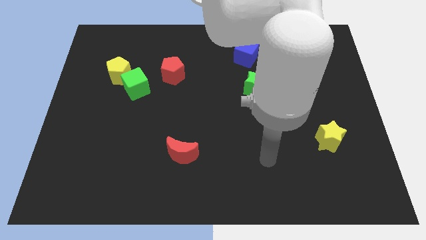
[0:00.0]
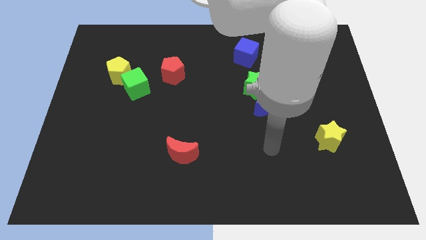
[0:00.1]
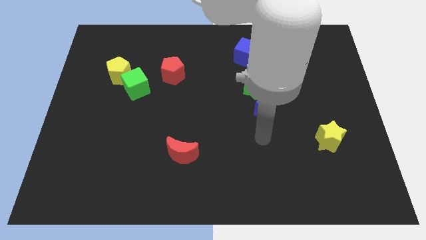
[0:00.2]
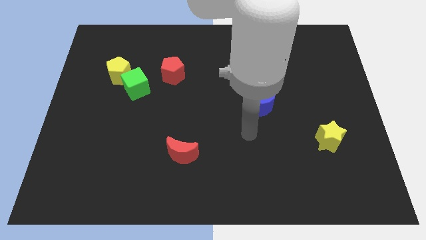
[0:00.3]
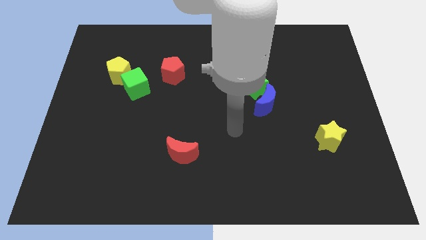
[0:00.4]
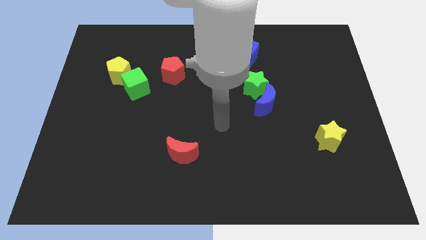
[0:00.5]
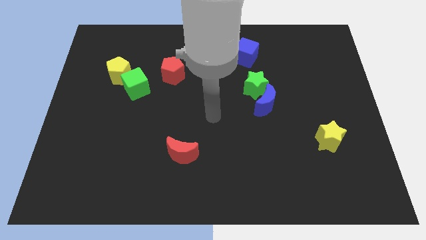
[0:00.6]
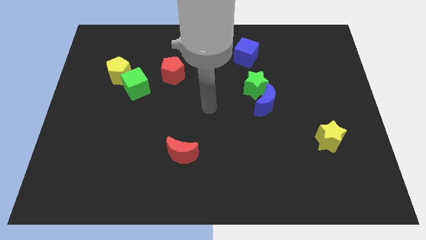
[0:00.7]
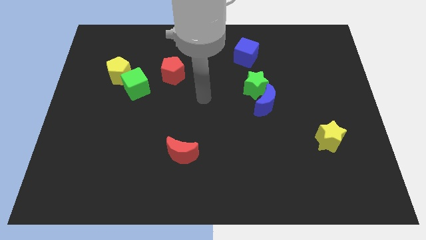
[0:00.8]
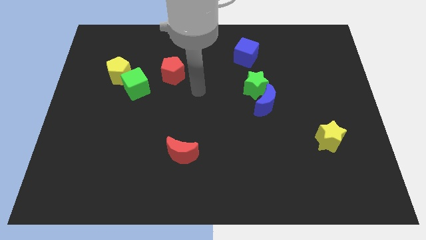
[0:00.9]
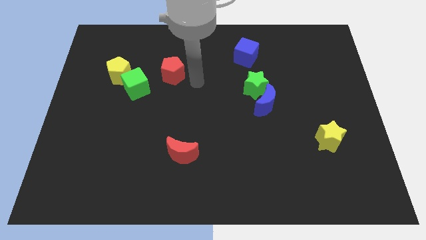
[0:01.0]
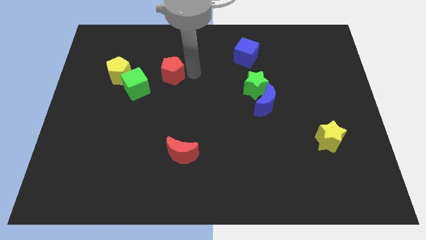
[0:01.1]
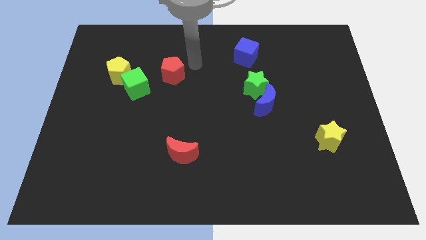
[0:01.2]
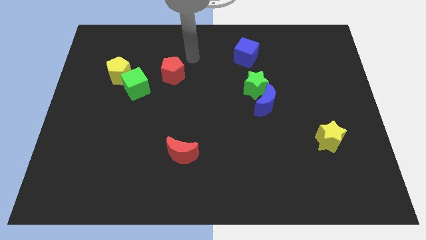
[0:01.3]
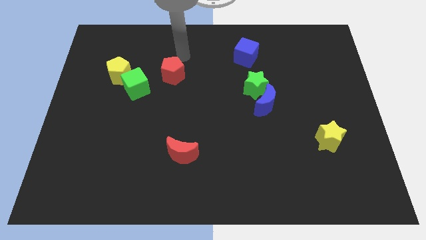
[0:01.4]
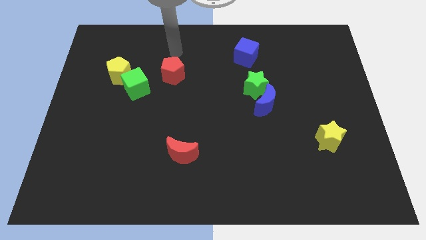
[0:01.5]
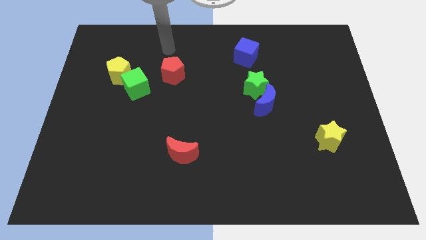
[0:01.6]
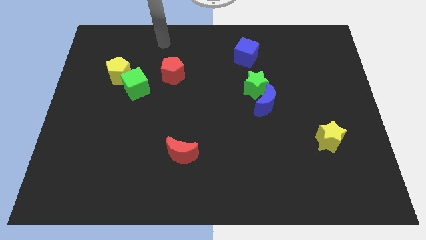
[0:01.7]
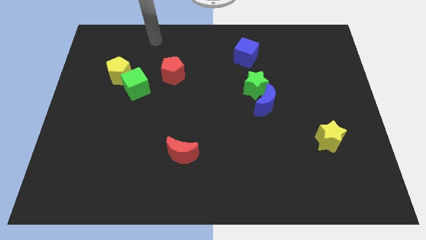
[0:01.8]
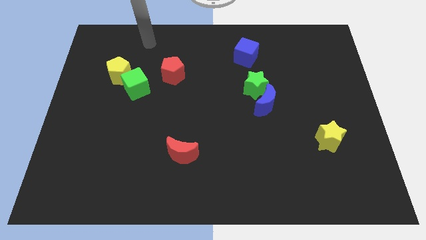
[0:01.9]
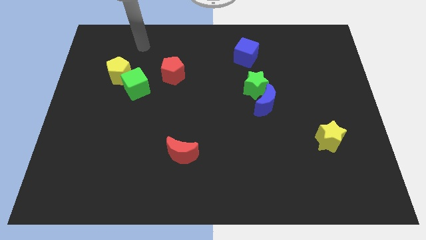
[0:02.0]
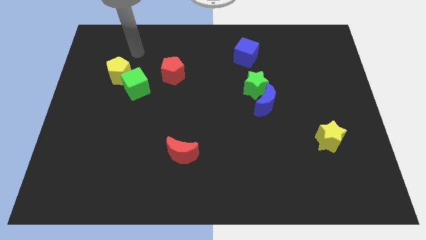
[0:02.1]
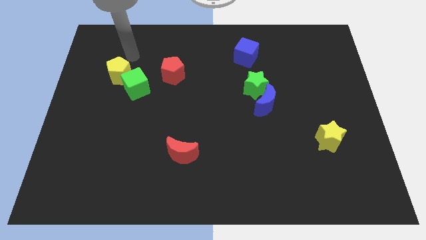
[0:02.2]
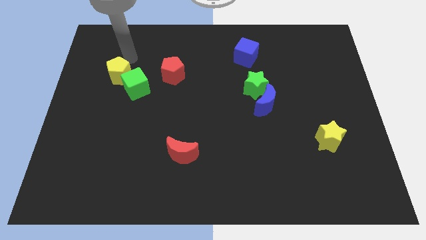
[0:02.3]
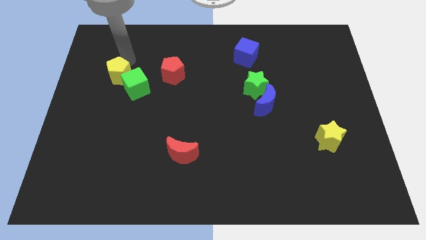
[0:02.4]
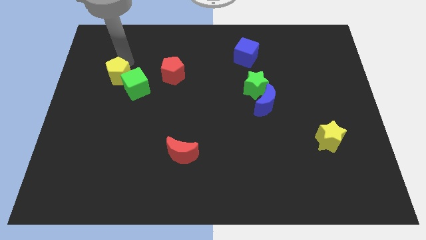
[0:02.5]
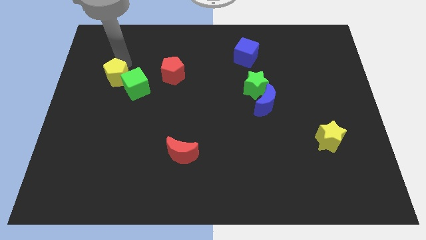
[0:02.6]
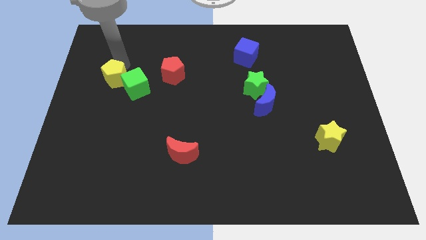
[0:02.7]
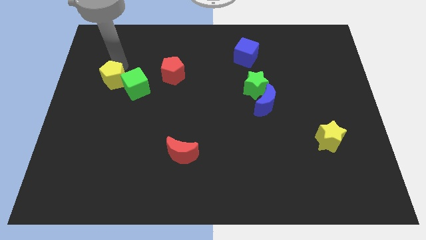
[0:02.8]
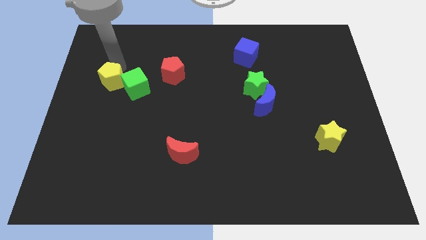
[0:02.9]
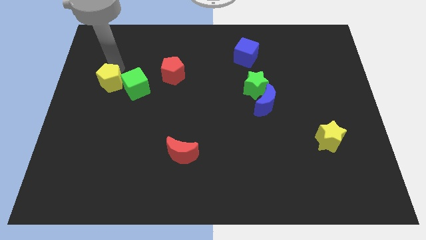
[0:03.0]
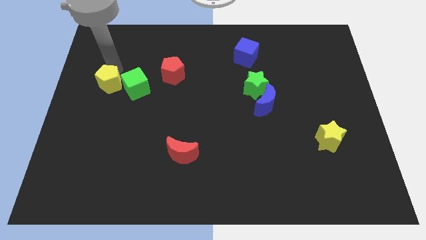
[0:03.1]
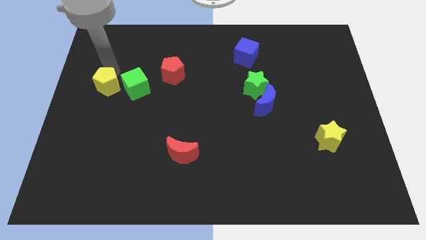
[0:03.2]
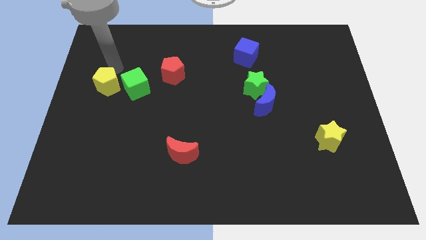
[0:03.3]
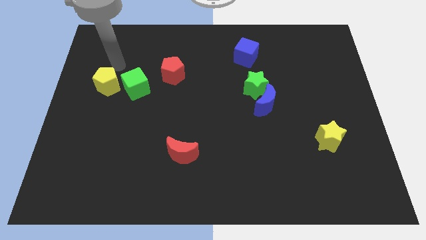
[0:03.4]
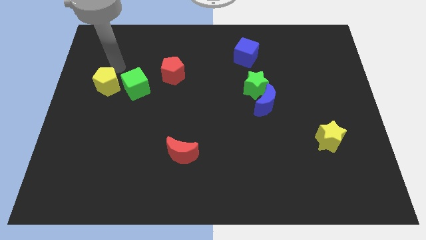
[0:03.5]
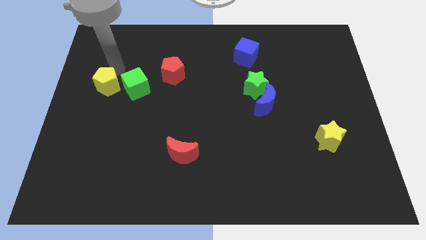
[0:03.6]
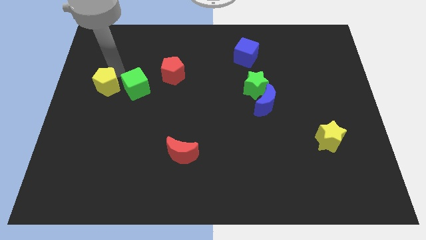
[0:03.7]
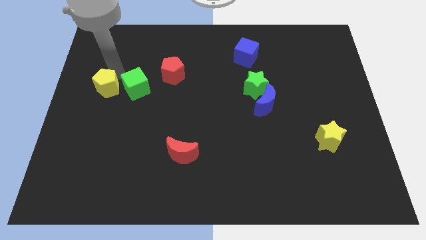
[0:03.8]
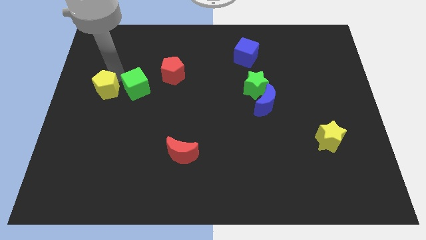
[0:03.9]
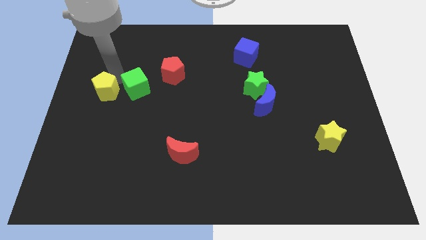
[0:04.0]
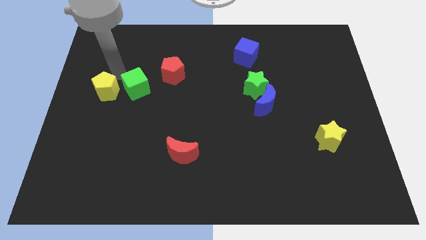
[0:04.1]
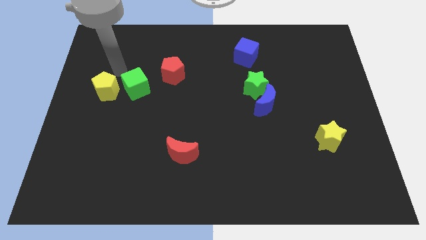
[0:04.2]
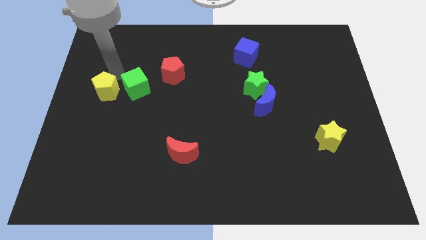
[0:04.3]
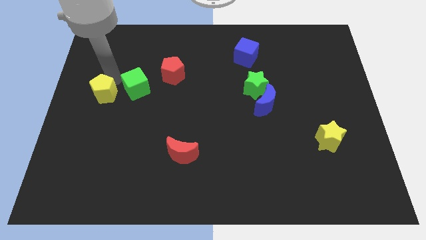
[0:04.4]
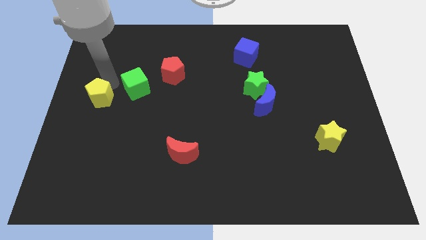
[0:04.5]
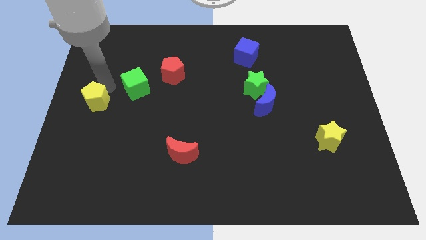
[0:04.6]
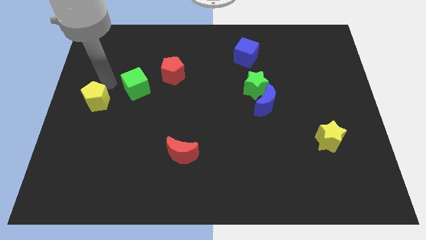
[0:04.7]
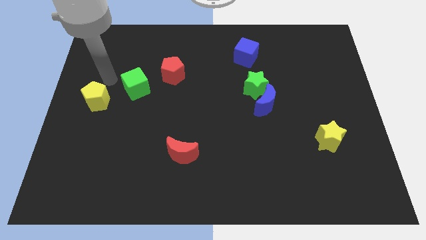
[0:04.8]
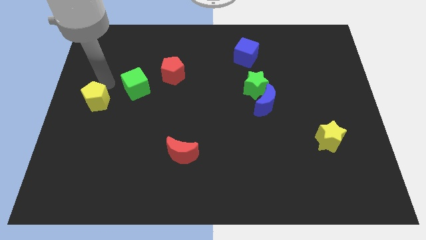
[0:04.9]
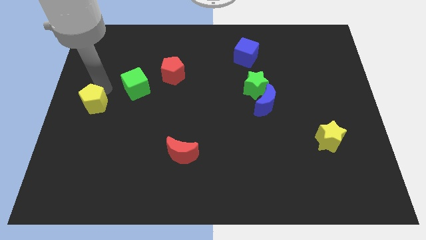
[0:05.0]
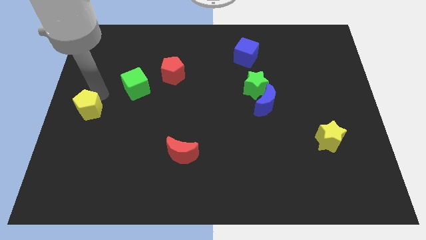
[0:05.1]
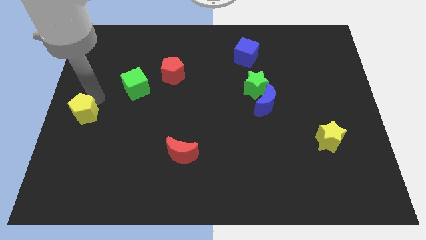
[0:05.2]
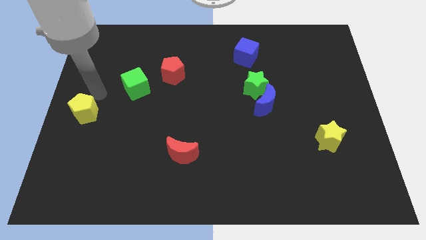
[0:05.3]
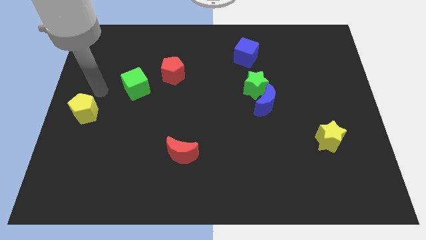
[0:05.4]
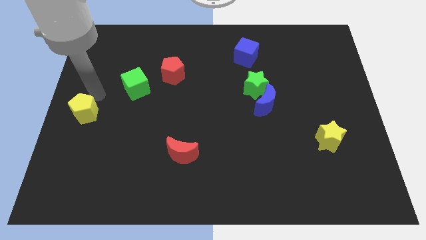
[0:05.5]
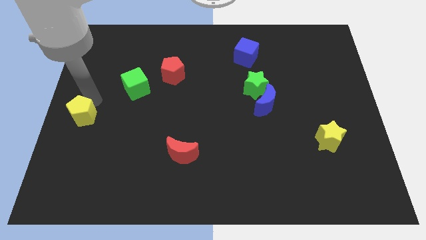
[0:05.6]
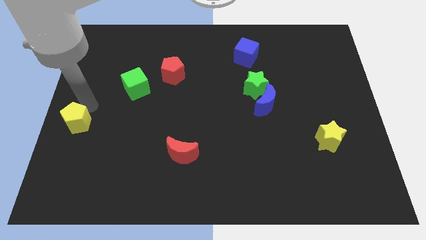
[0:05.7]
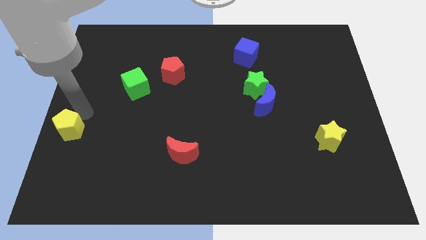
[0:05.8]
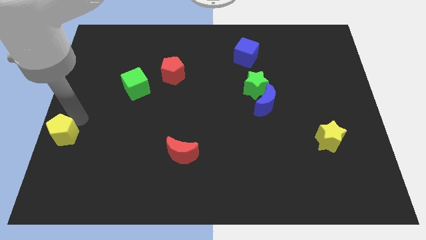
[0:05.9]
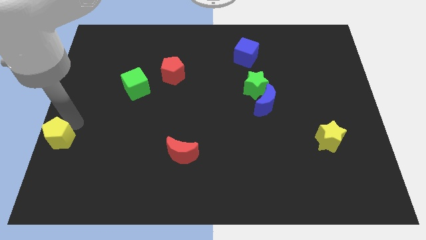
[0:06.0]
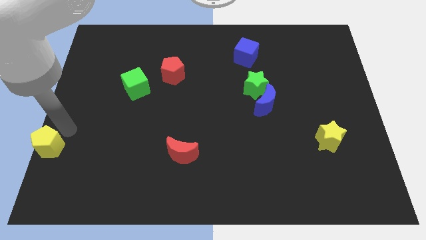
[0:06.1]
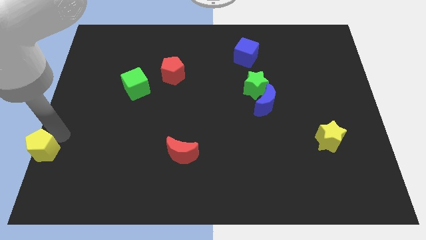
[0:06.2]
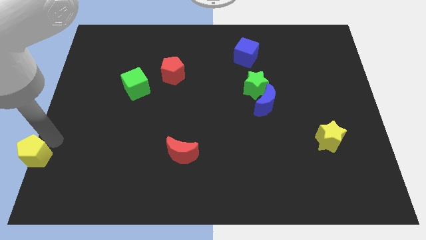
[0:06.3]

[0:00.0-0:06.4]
put the yellow pentagon to the bottom left corner
